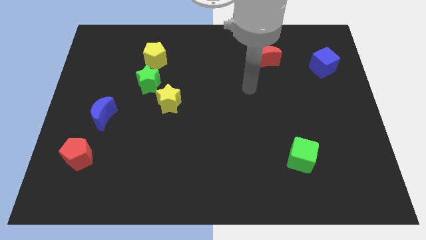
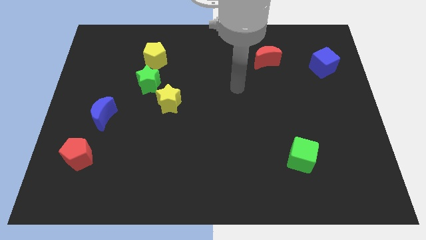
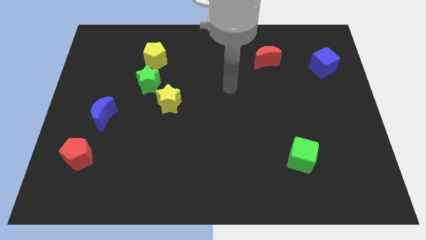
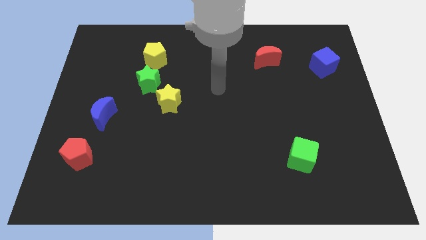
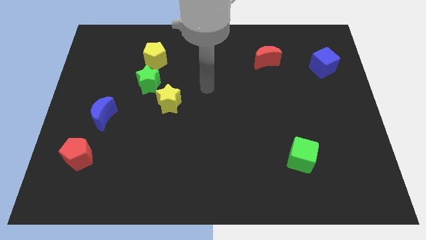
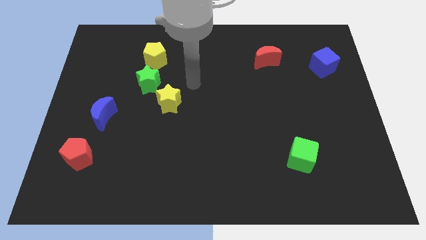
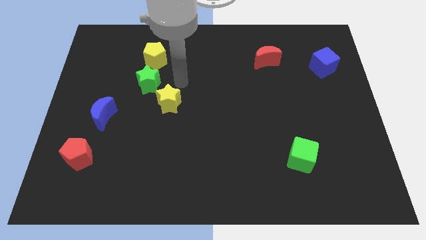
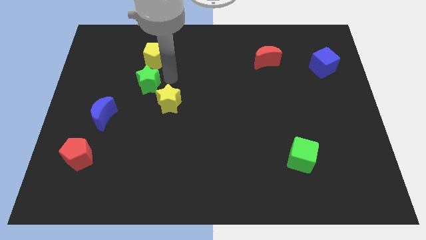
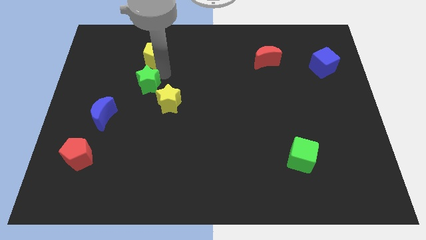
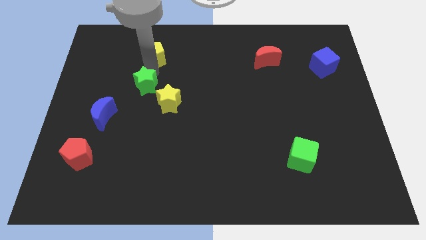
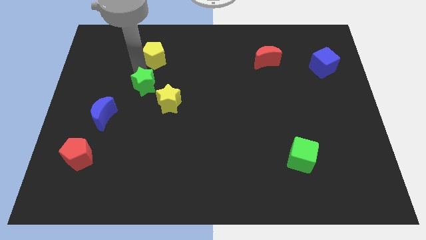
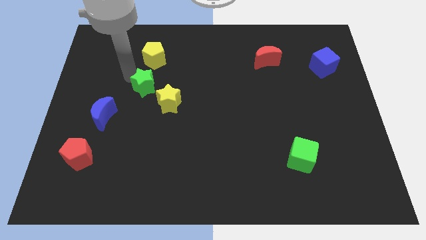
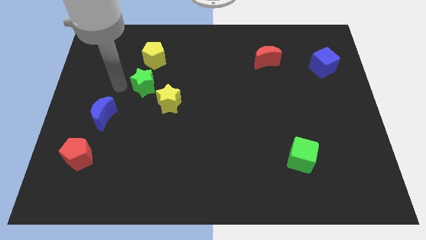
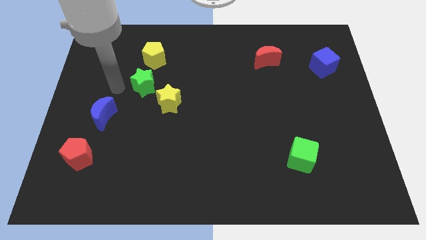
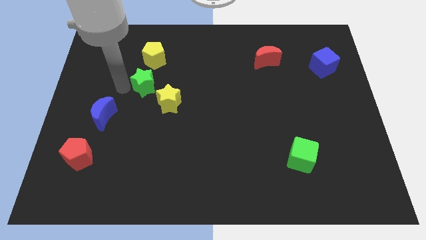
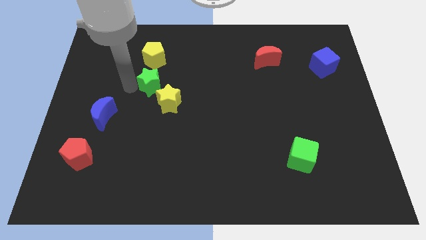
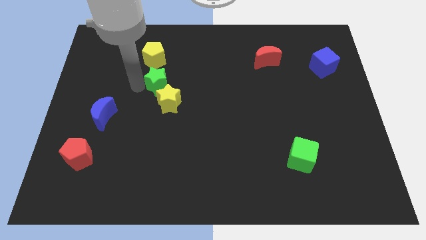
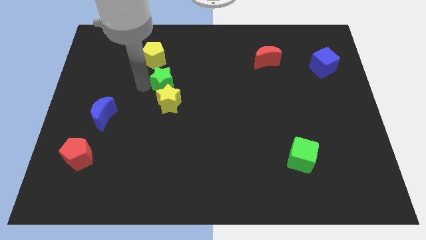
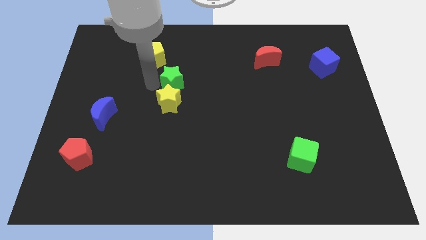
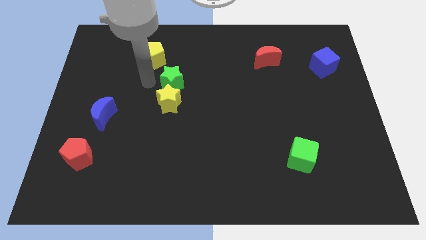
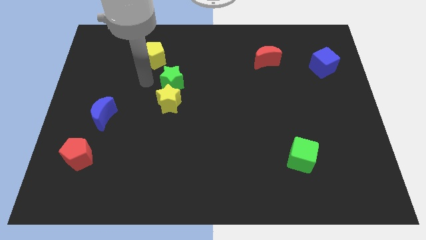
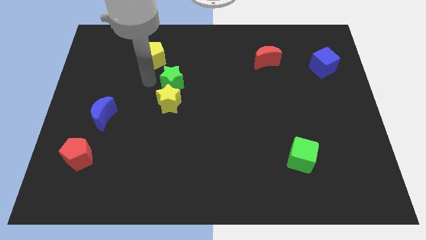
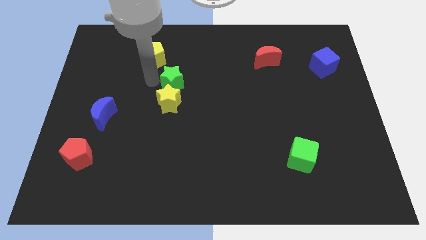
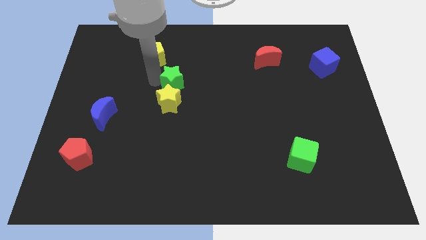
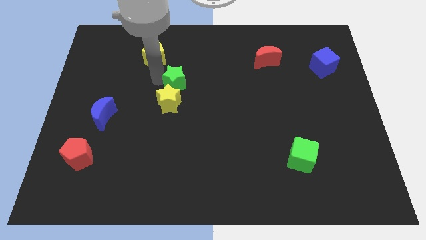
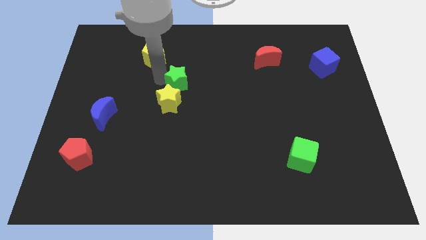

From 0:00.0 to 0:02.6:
slide the green star a little bit right

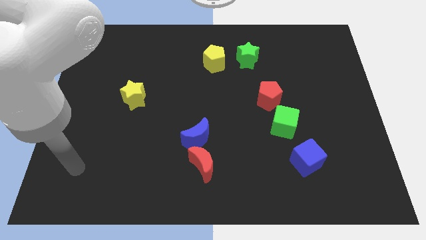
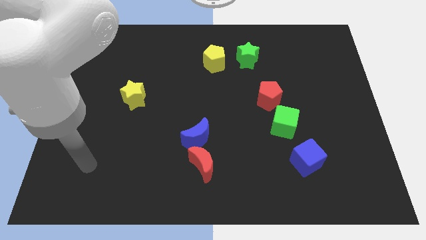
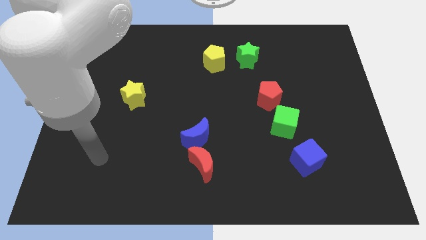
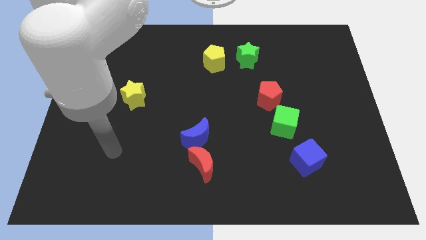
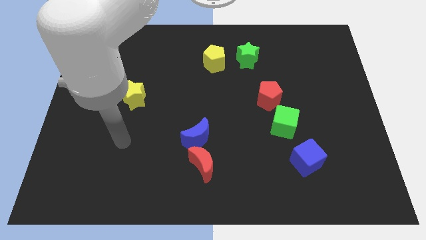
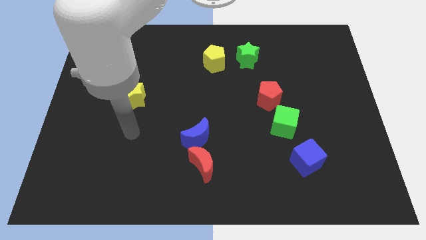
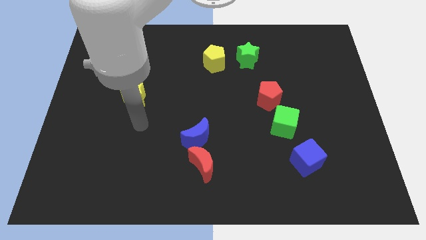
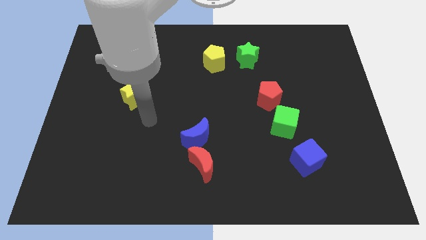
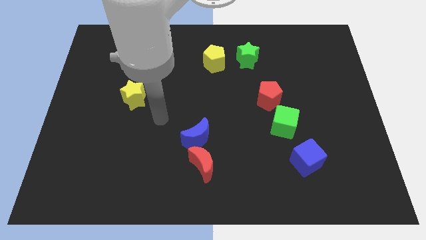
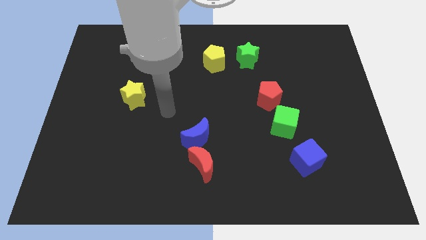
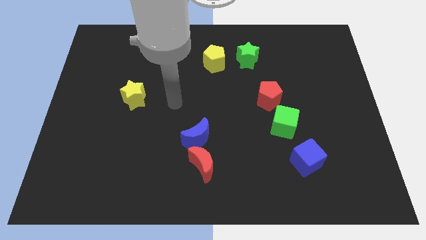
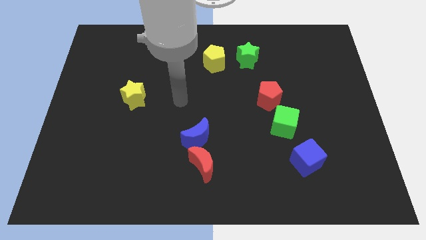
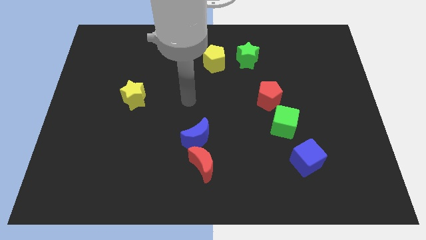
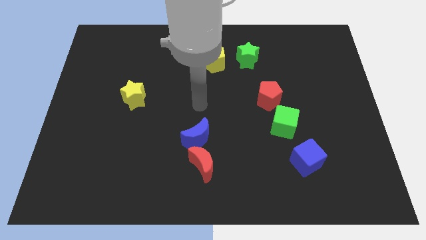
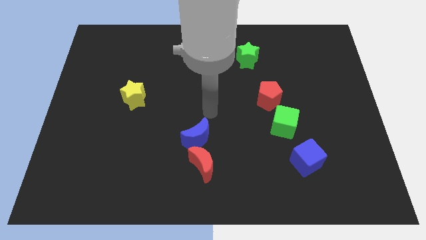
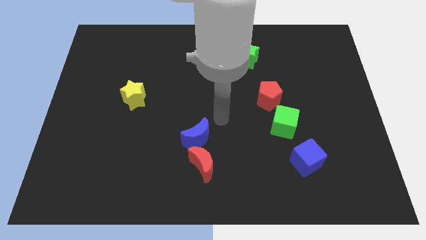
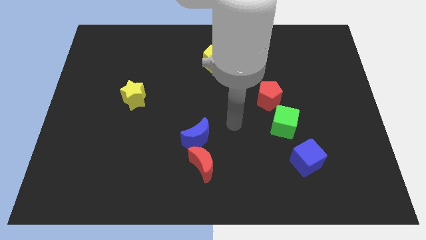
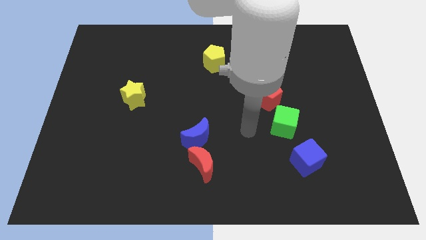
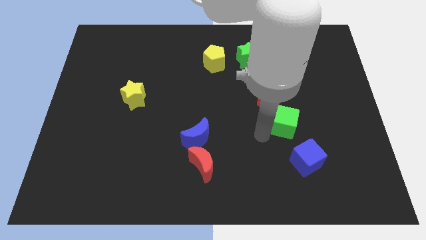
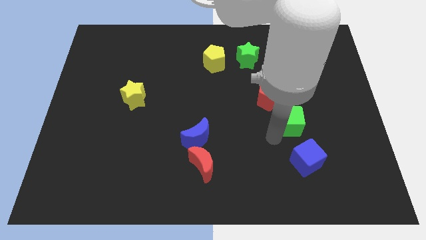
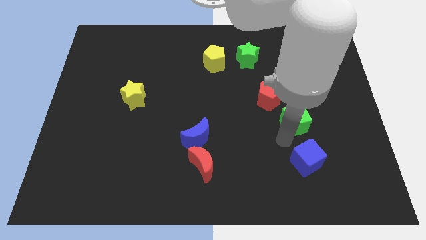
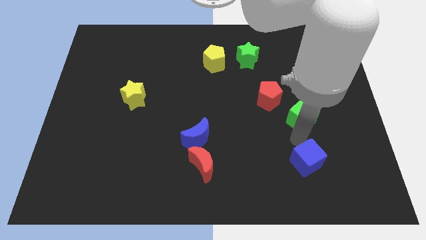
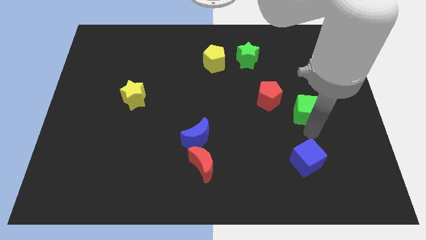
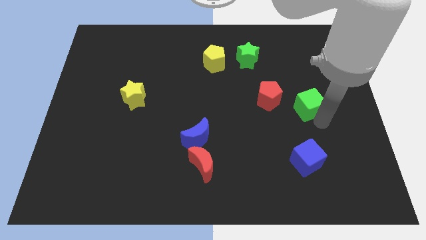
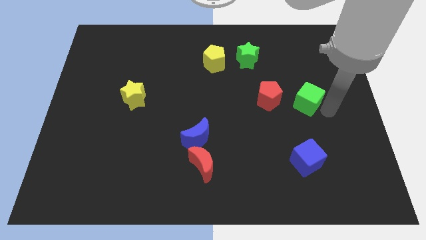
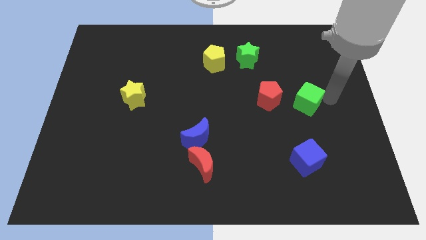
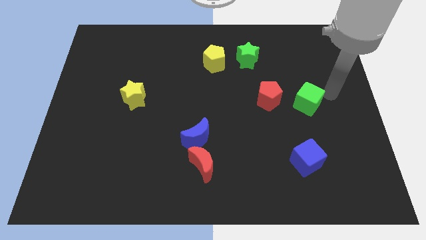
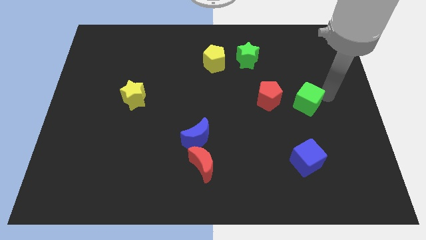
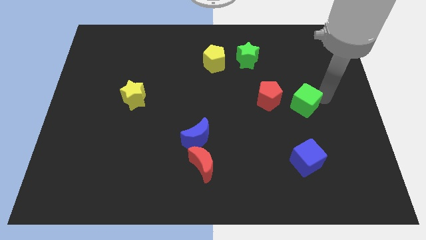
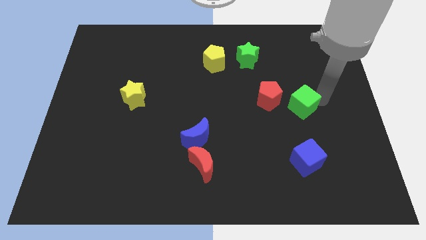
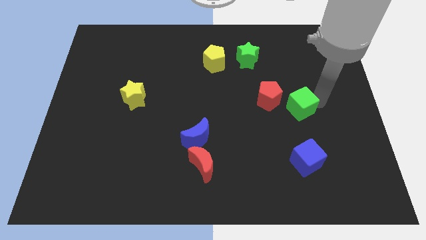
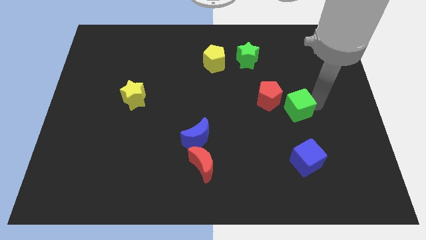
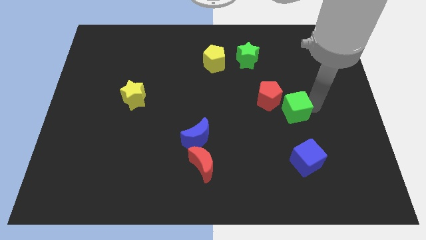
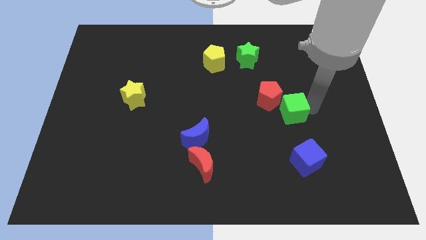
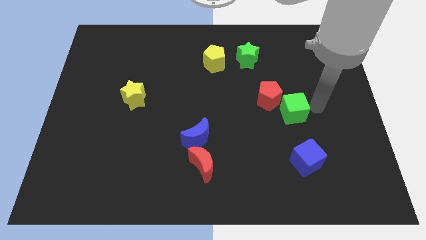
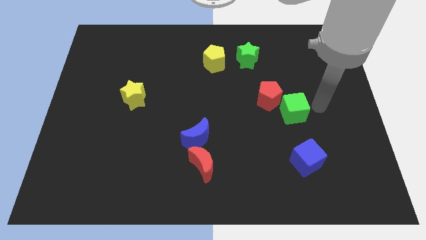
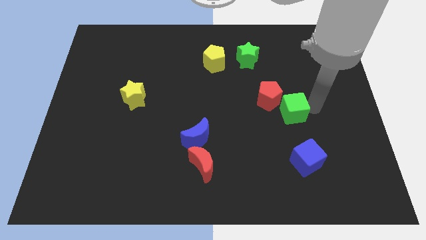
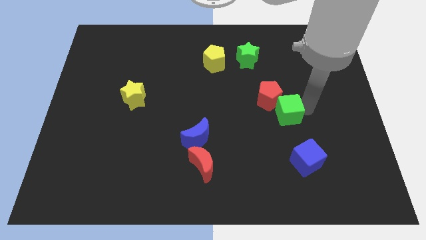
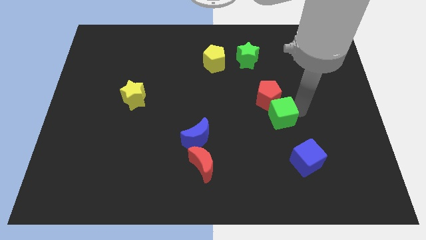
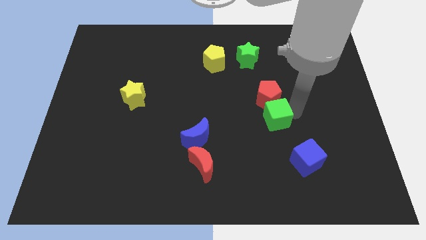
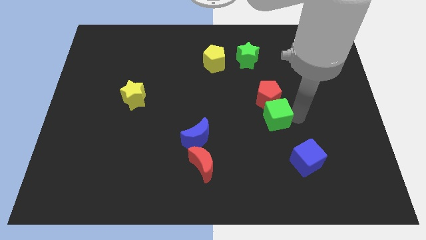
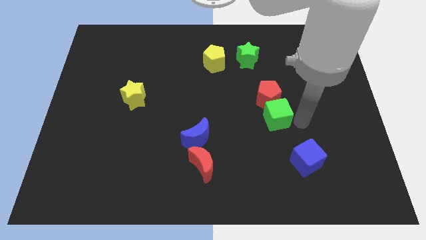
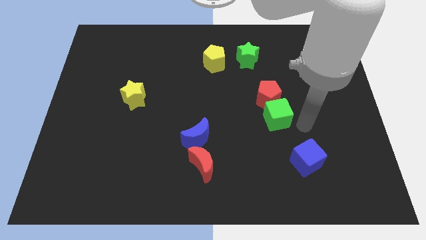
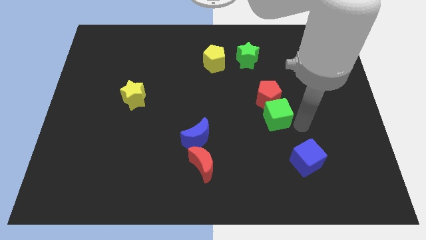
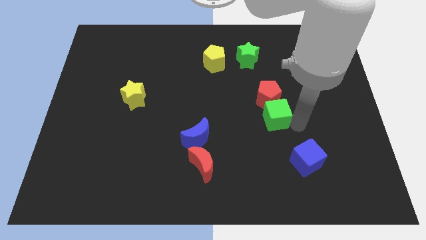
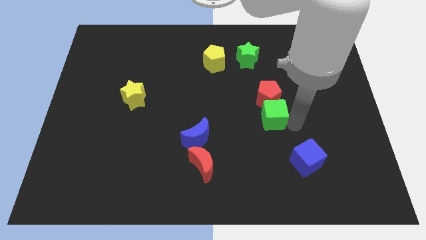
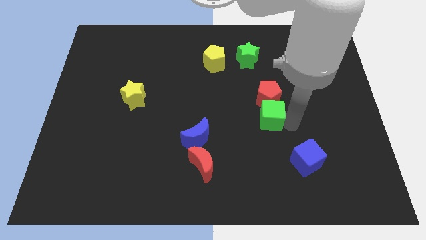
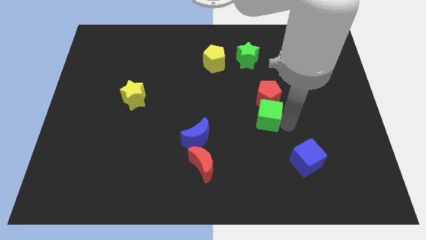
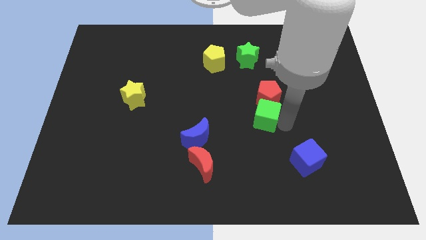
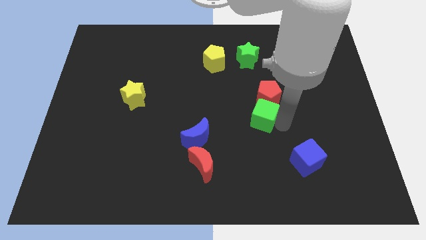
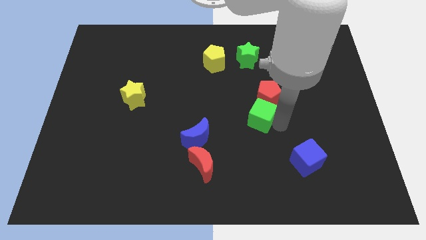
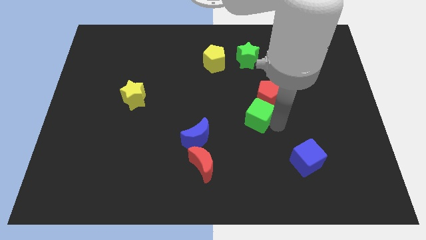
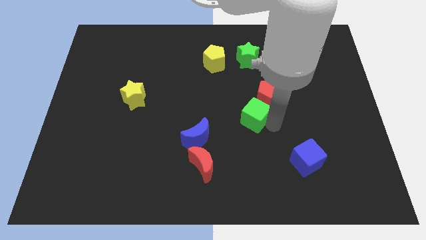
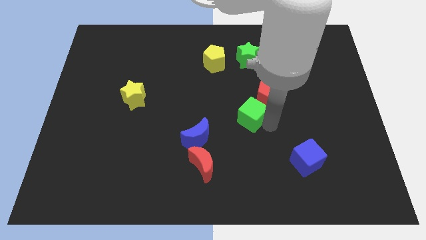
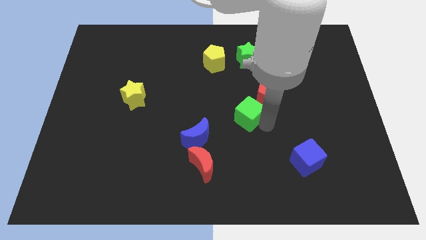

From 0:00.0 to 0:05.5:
slightly slide the green cube upwards and left diagonally

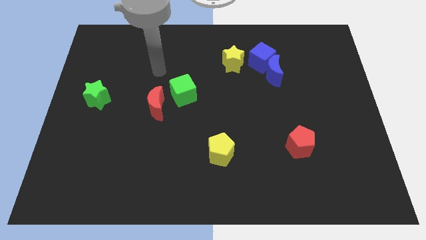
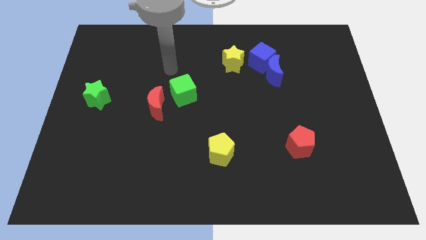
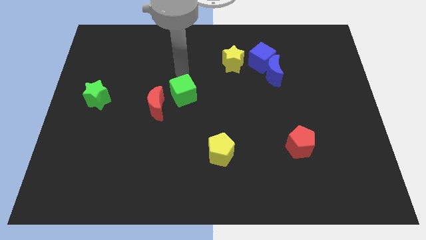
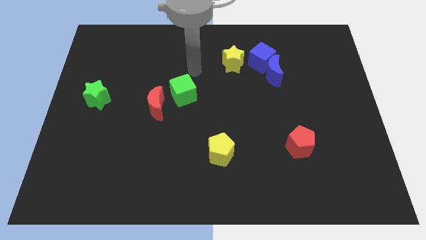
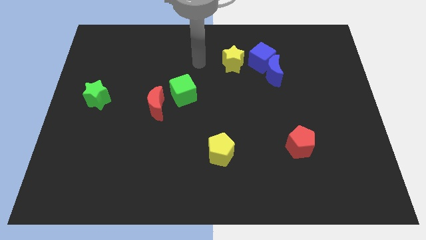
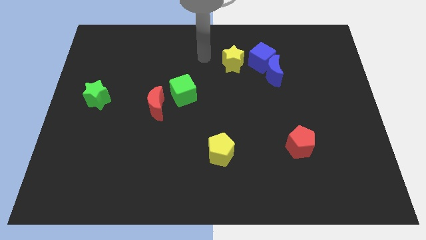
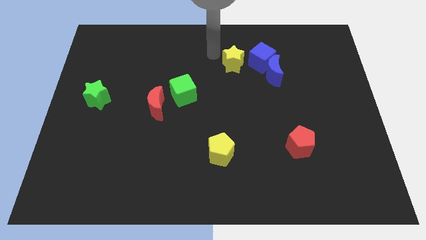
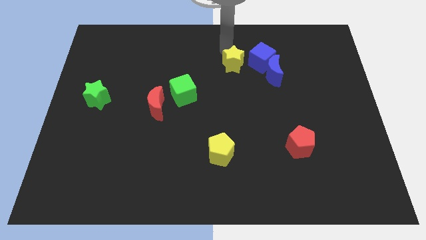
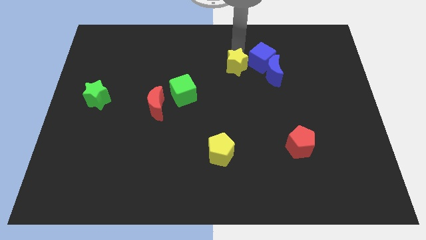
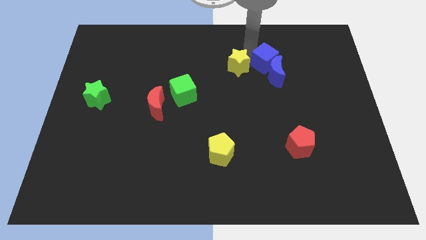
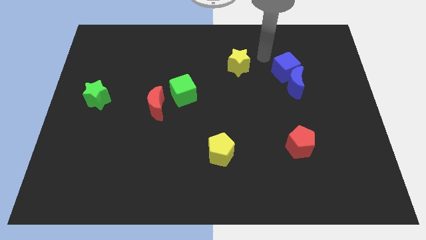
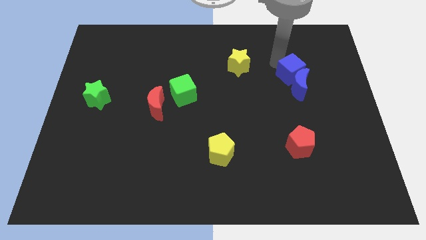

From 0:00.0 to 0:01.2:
slightly move the blue moon downwards and right diagonally
